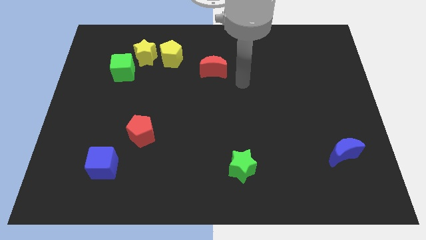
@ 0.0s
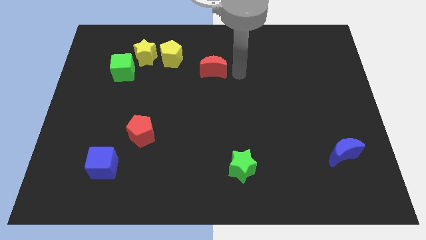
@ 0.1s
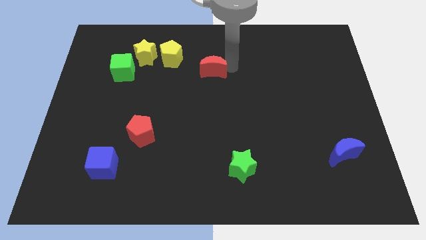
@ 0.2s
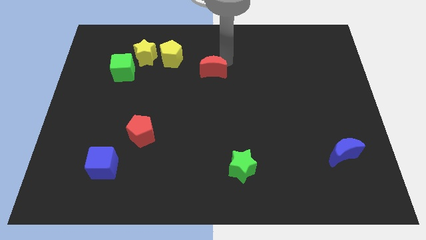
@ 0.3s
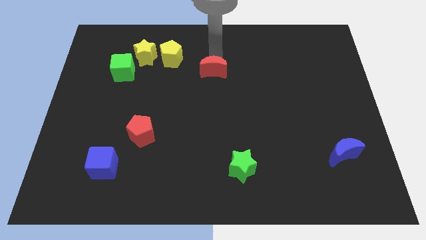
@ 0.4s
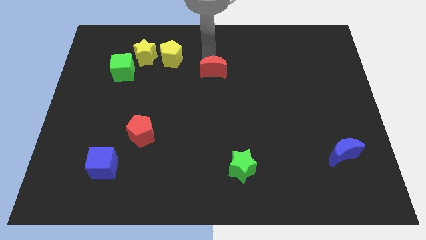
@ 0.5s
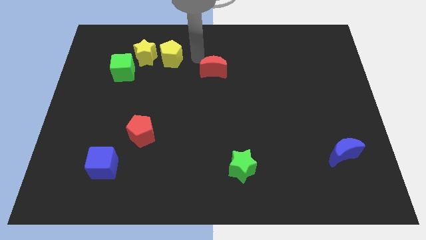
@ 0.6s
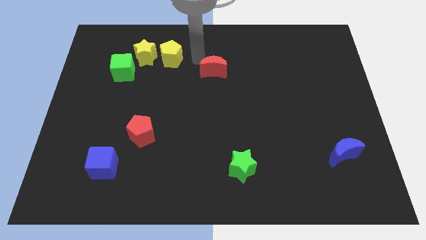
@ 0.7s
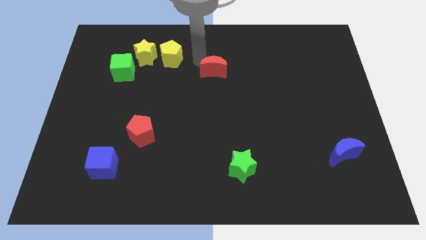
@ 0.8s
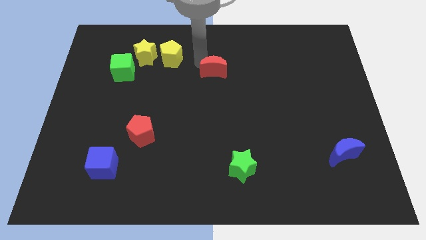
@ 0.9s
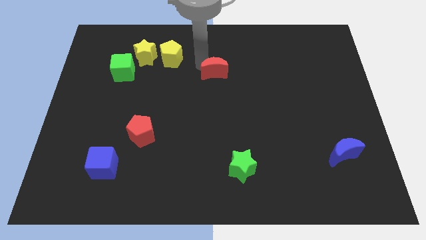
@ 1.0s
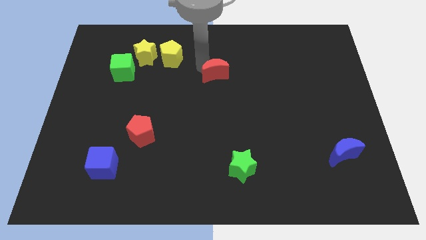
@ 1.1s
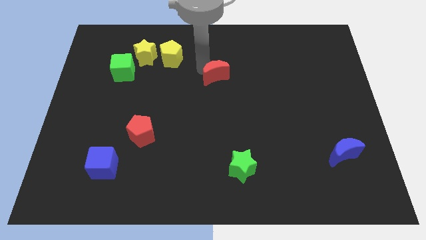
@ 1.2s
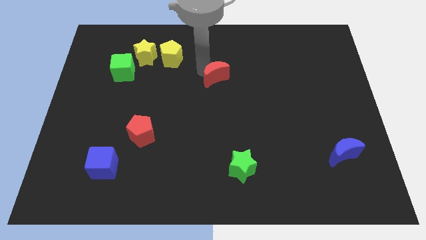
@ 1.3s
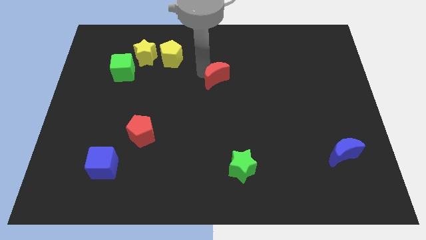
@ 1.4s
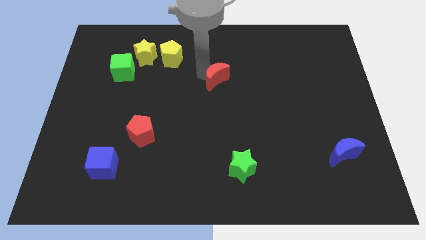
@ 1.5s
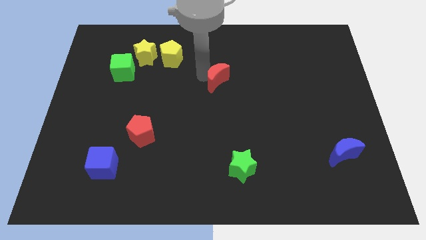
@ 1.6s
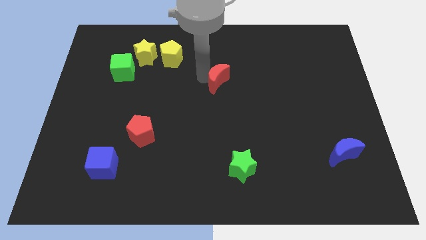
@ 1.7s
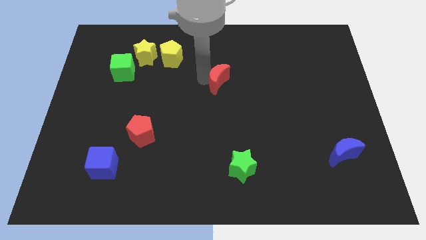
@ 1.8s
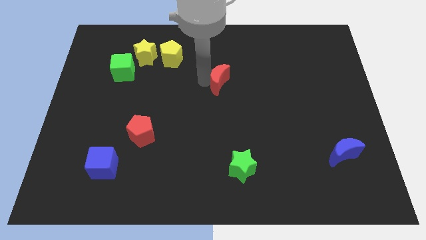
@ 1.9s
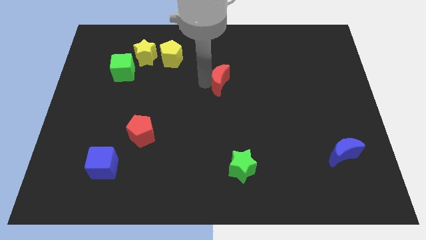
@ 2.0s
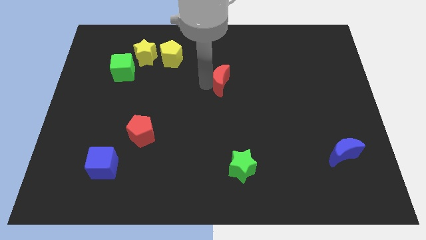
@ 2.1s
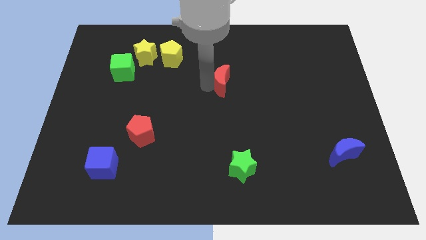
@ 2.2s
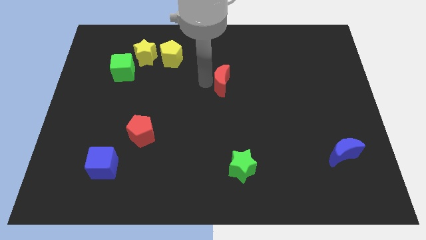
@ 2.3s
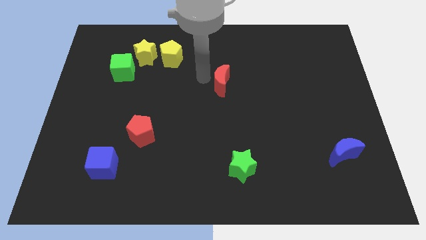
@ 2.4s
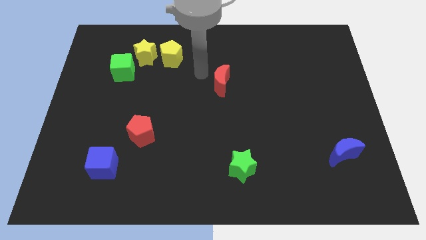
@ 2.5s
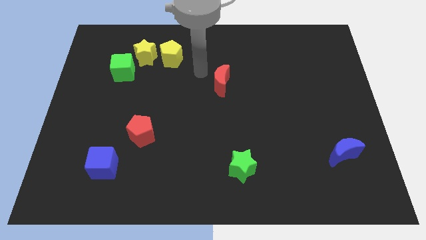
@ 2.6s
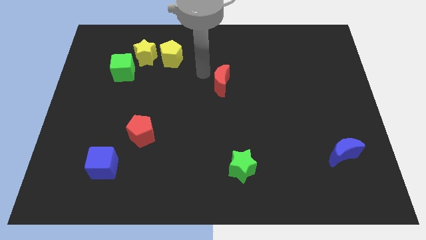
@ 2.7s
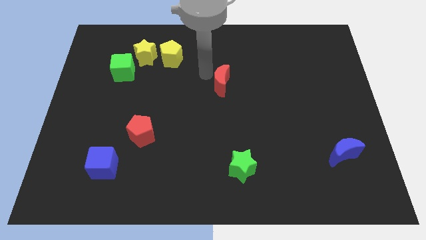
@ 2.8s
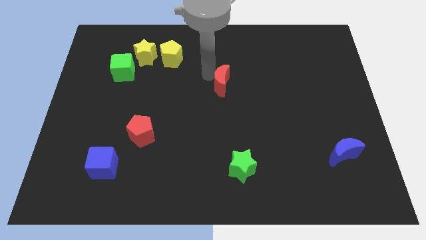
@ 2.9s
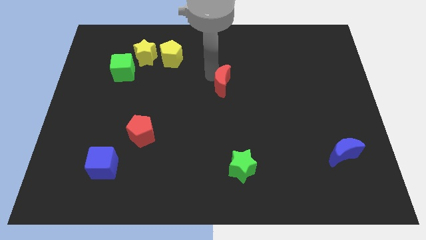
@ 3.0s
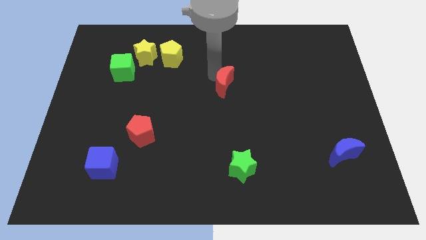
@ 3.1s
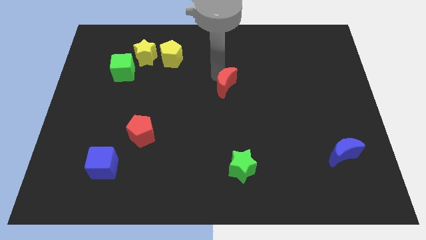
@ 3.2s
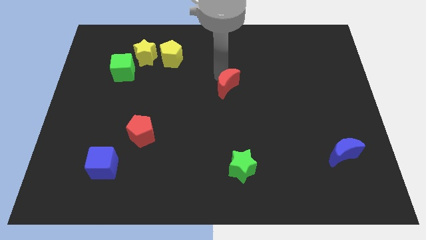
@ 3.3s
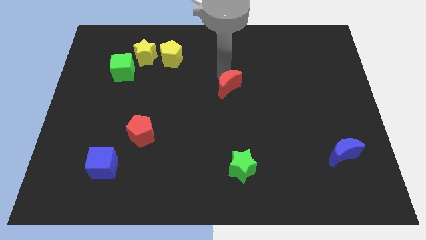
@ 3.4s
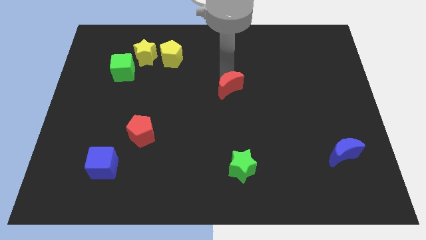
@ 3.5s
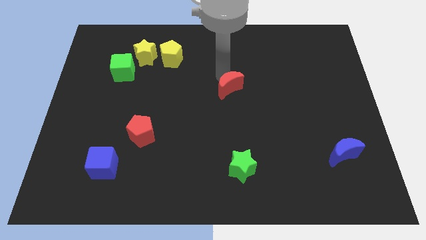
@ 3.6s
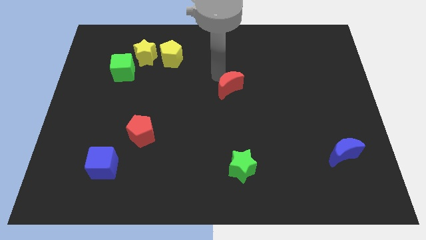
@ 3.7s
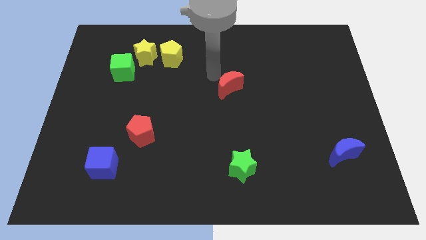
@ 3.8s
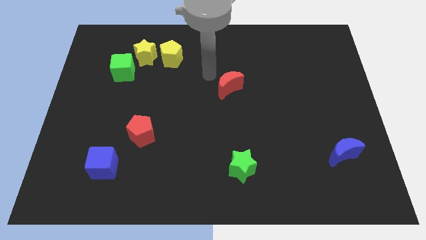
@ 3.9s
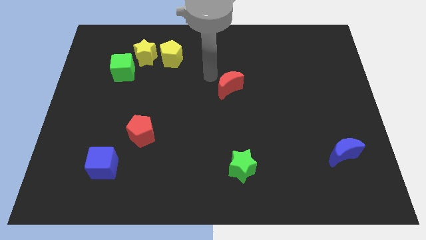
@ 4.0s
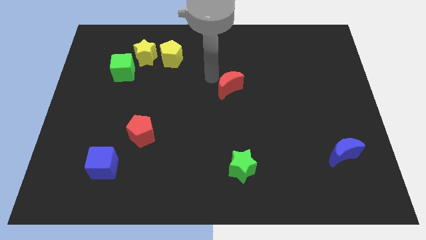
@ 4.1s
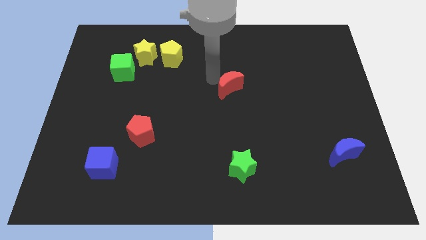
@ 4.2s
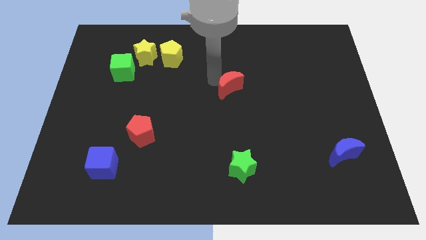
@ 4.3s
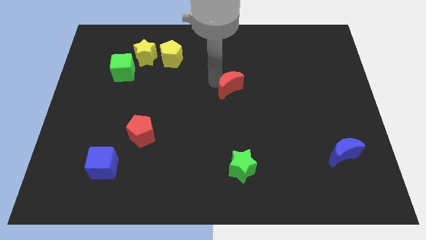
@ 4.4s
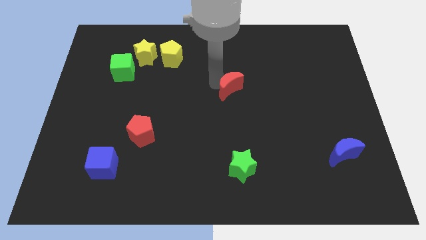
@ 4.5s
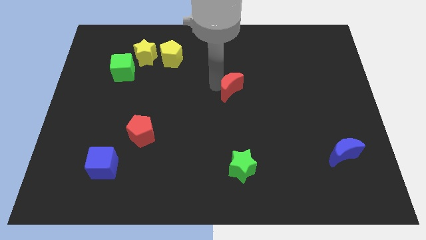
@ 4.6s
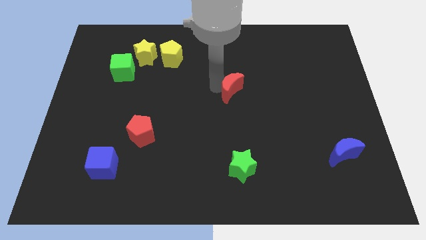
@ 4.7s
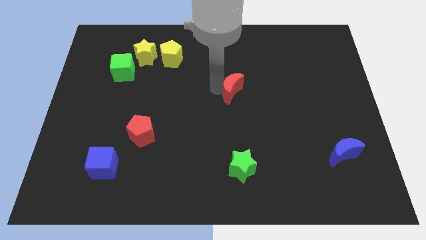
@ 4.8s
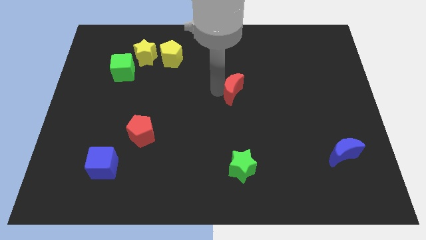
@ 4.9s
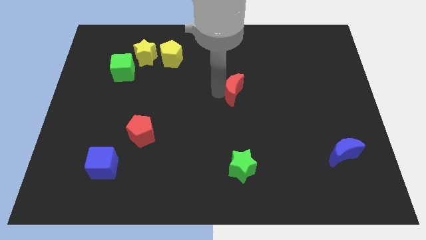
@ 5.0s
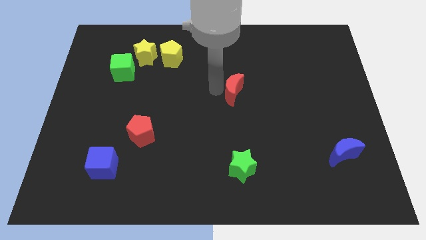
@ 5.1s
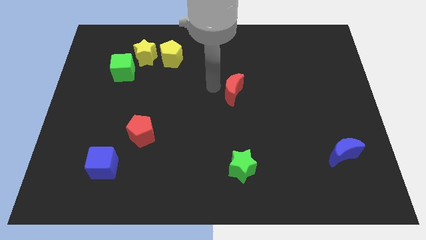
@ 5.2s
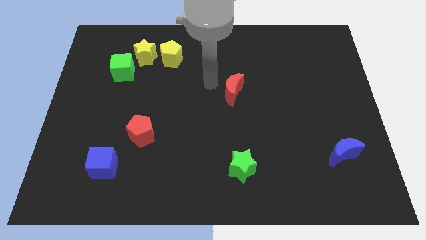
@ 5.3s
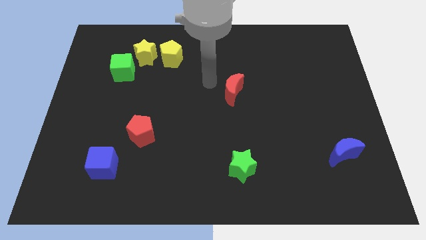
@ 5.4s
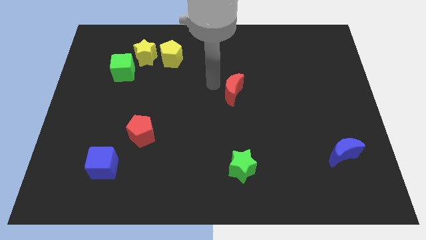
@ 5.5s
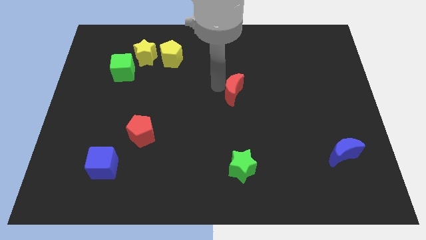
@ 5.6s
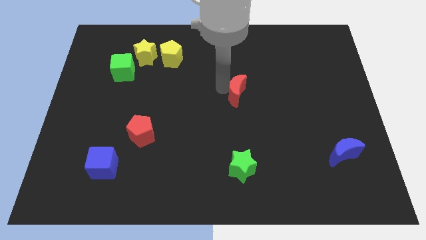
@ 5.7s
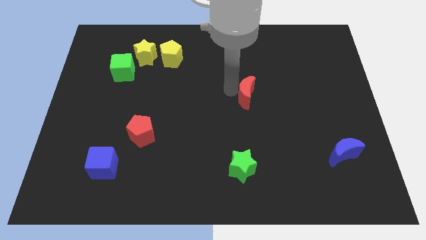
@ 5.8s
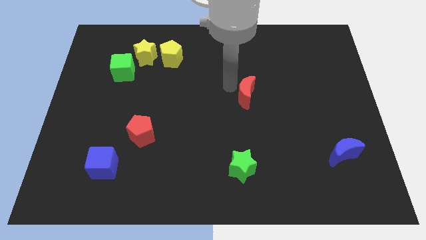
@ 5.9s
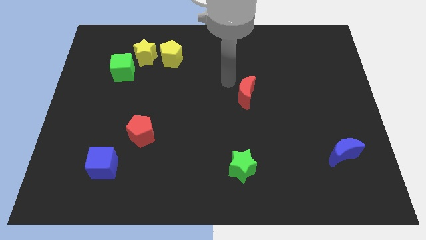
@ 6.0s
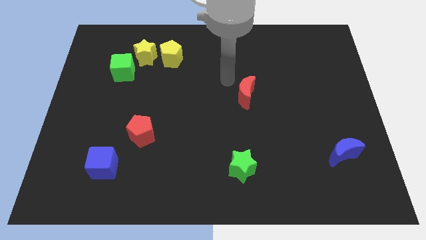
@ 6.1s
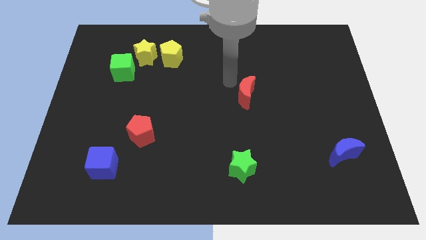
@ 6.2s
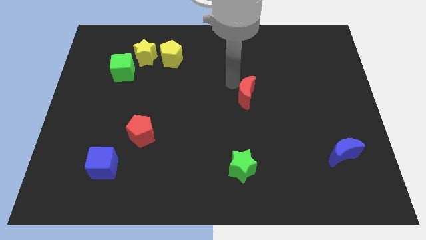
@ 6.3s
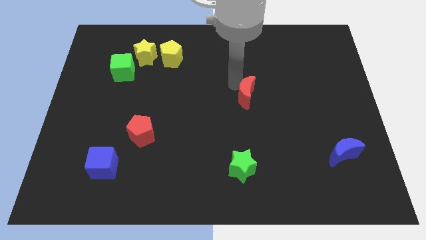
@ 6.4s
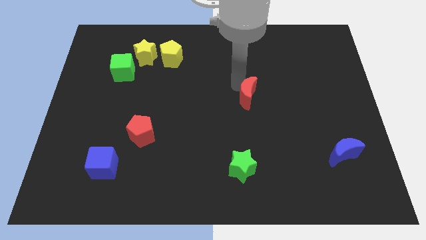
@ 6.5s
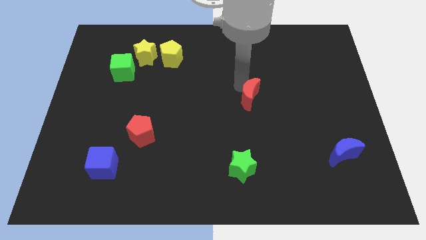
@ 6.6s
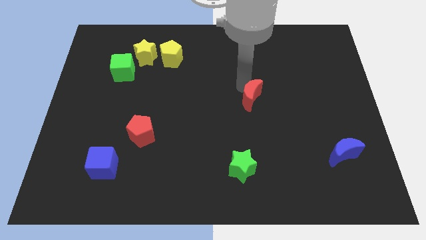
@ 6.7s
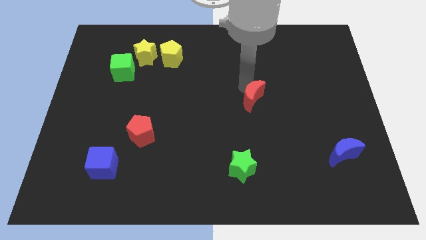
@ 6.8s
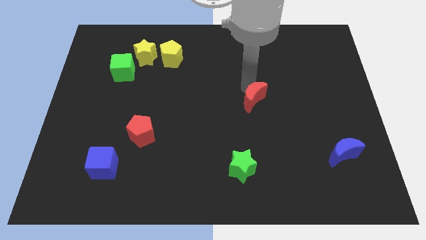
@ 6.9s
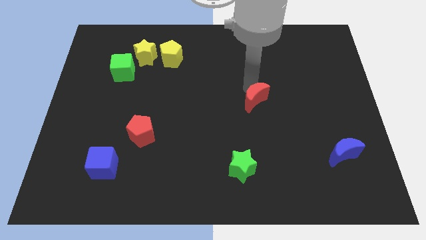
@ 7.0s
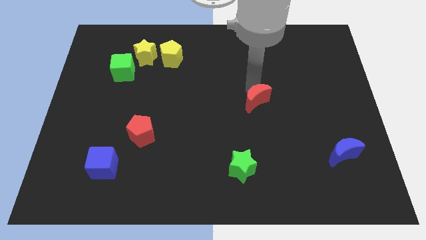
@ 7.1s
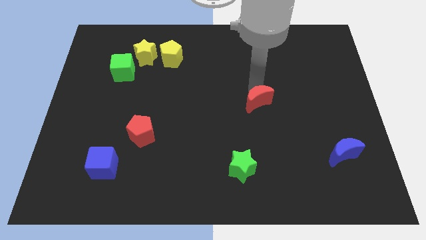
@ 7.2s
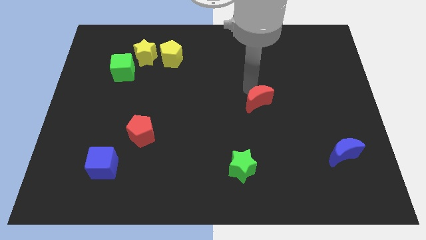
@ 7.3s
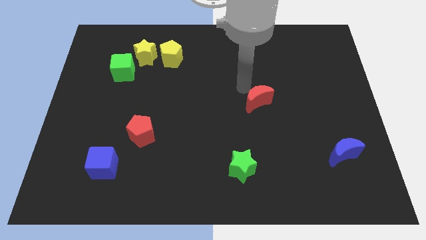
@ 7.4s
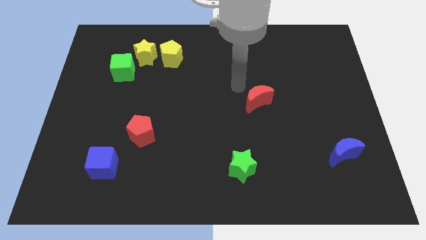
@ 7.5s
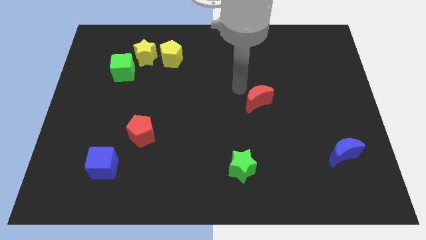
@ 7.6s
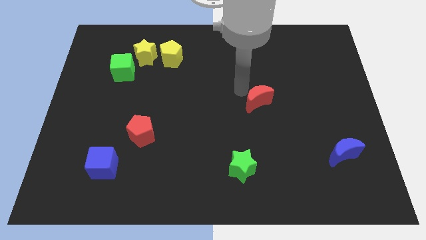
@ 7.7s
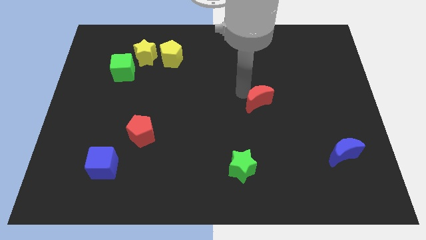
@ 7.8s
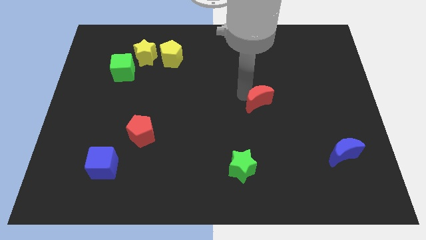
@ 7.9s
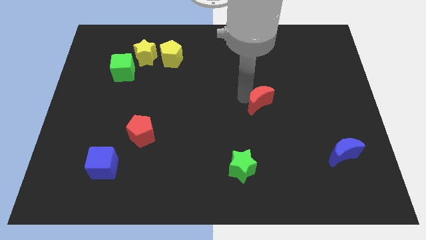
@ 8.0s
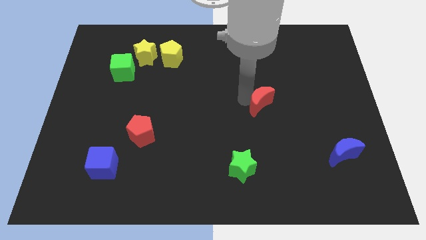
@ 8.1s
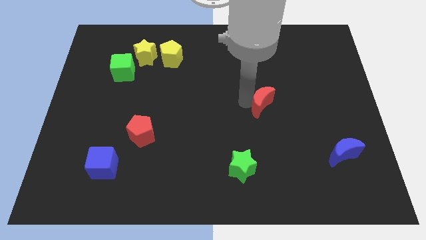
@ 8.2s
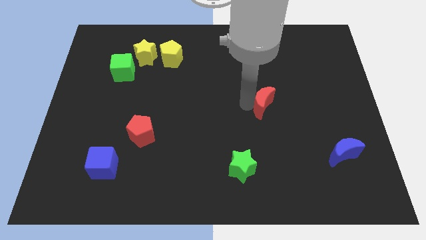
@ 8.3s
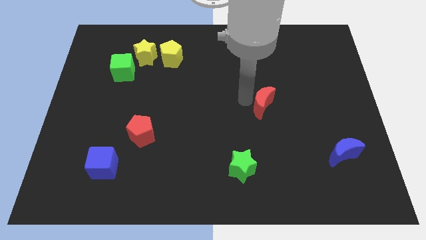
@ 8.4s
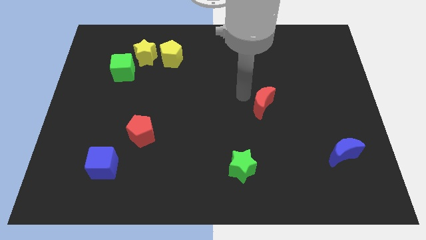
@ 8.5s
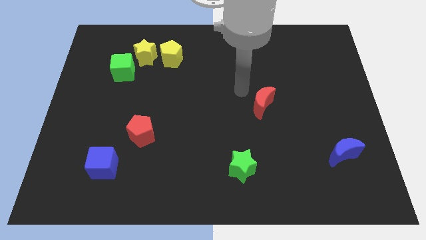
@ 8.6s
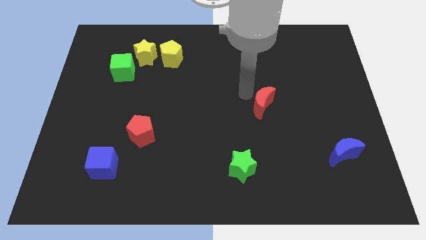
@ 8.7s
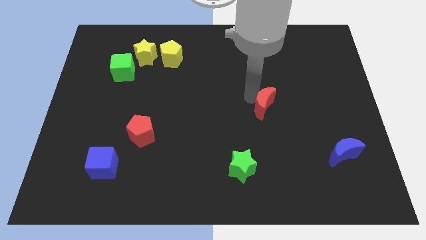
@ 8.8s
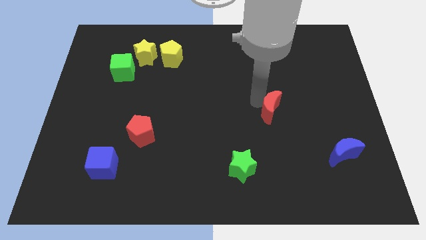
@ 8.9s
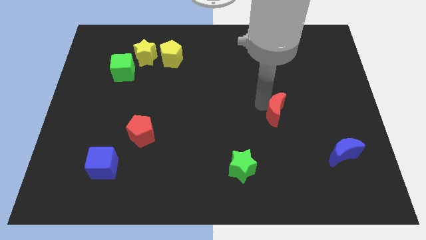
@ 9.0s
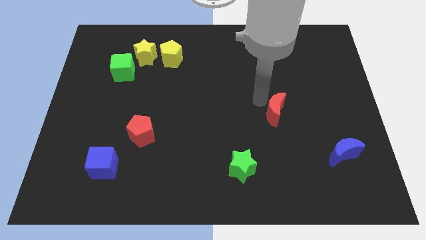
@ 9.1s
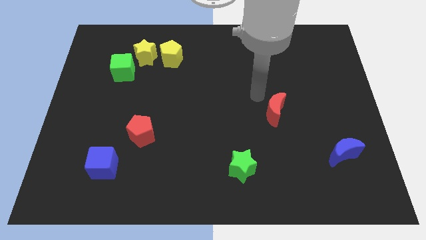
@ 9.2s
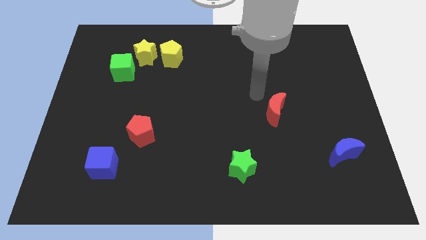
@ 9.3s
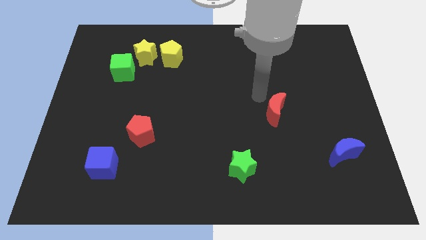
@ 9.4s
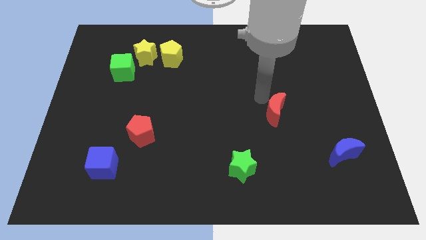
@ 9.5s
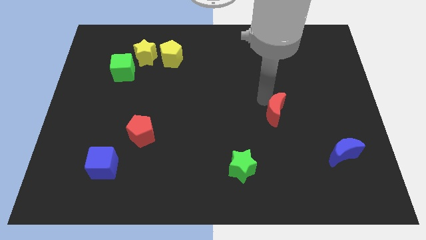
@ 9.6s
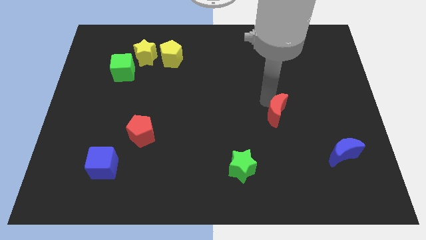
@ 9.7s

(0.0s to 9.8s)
move the red moon downwards and to the right
